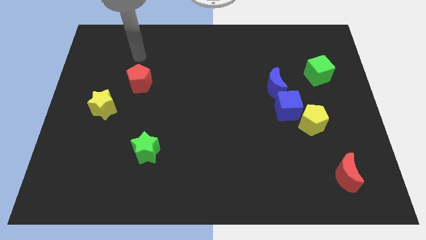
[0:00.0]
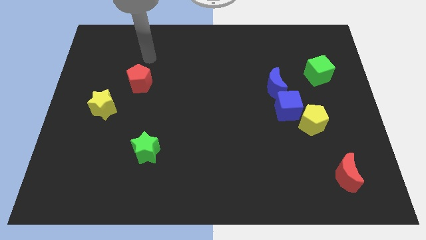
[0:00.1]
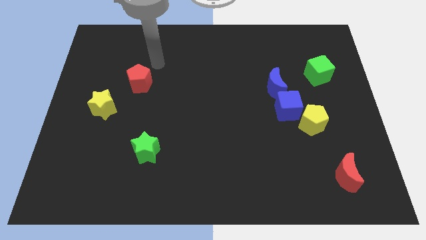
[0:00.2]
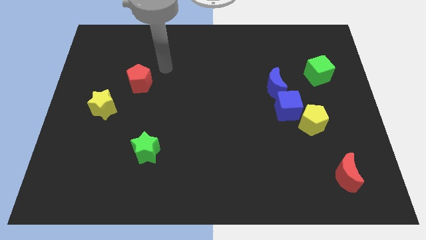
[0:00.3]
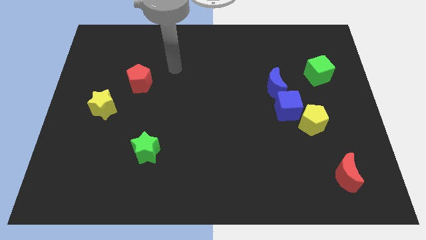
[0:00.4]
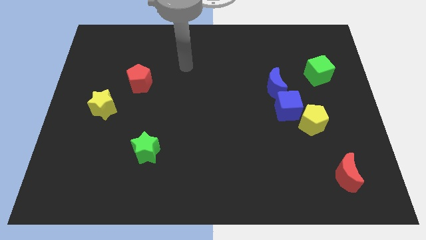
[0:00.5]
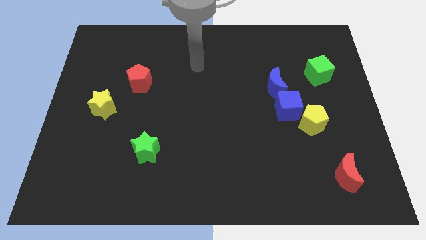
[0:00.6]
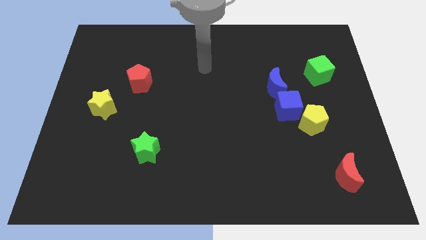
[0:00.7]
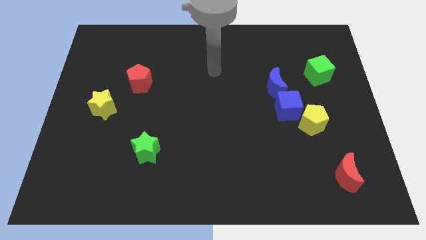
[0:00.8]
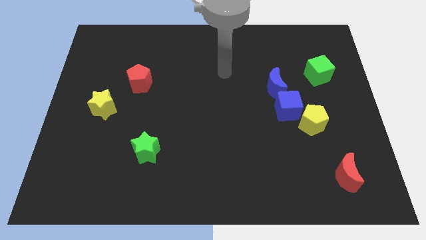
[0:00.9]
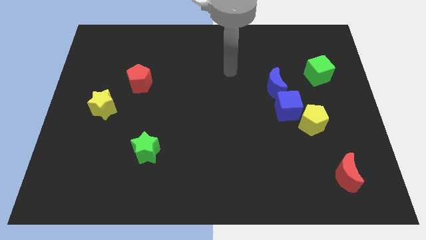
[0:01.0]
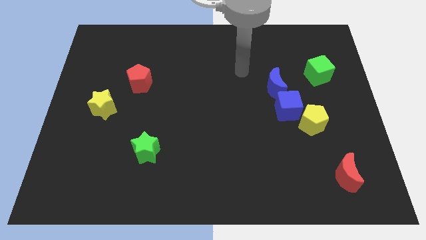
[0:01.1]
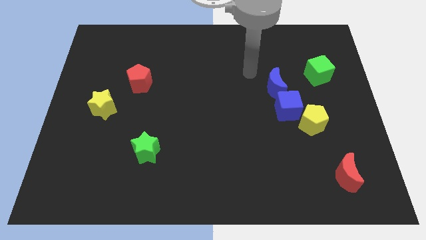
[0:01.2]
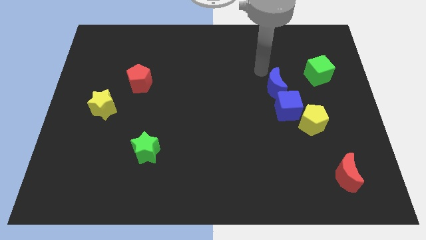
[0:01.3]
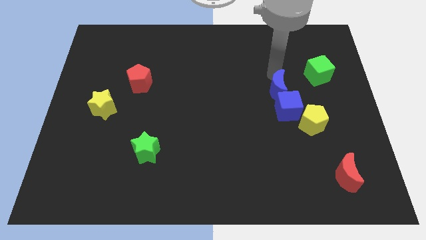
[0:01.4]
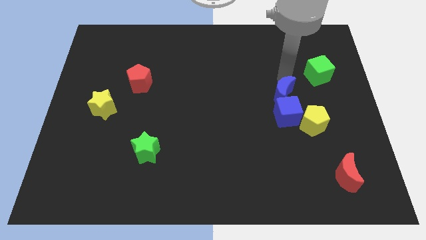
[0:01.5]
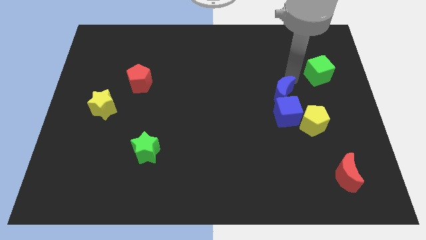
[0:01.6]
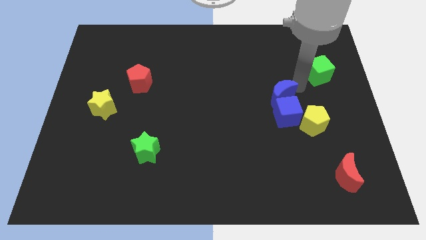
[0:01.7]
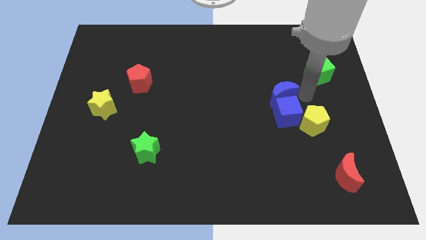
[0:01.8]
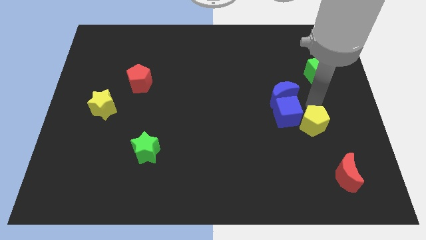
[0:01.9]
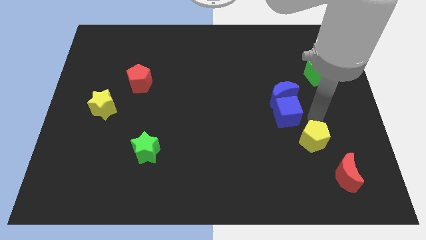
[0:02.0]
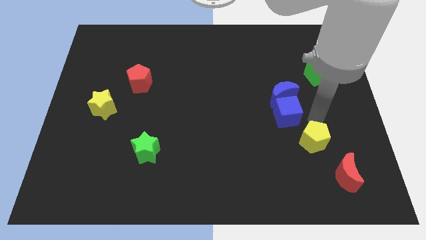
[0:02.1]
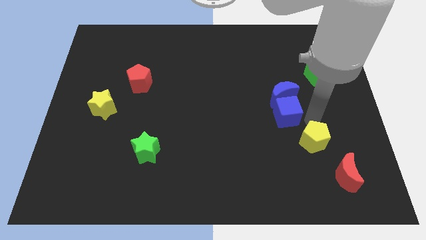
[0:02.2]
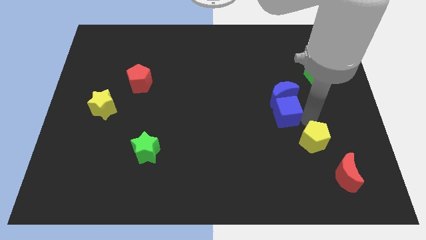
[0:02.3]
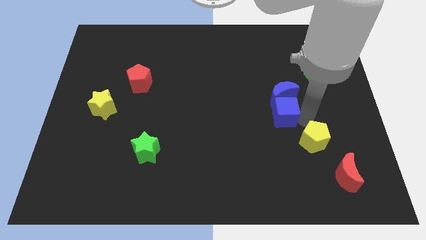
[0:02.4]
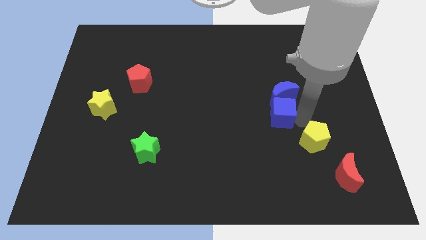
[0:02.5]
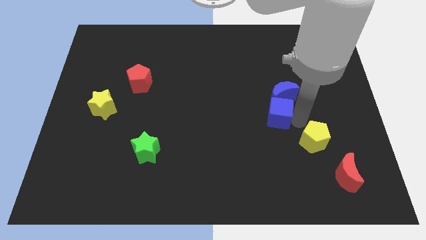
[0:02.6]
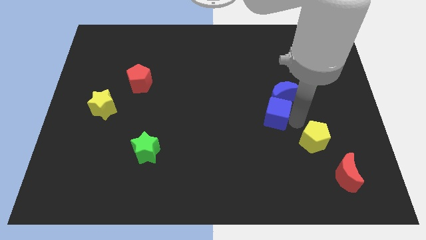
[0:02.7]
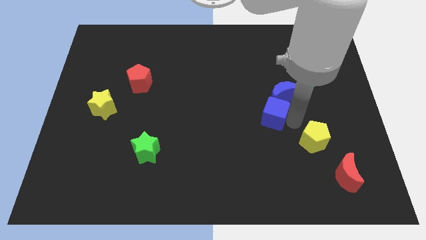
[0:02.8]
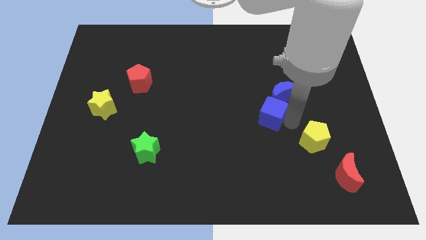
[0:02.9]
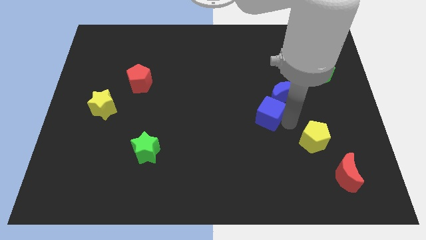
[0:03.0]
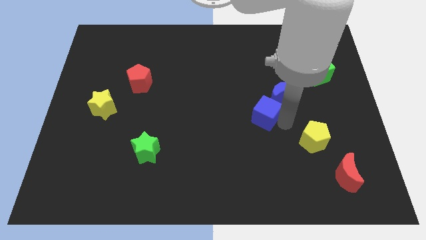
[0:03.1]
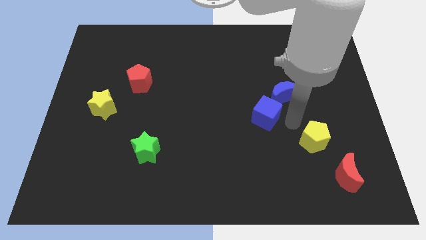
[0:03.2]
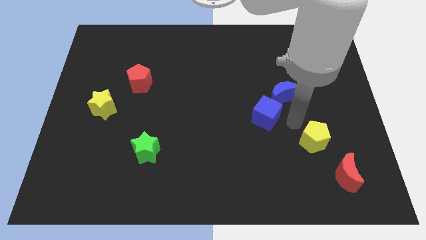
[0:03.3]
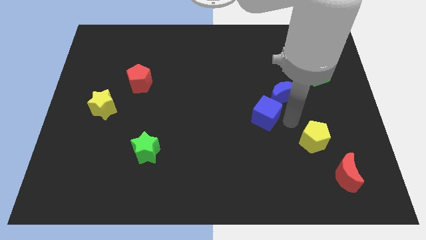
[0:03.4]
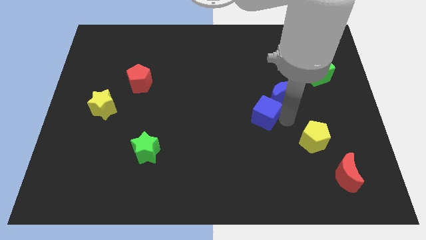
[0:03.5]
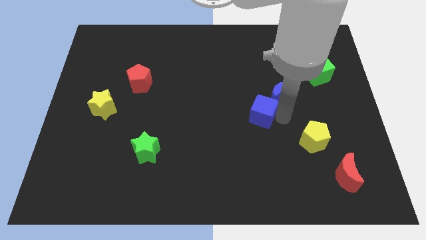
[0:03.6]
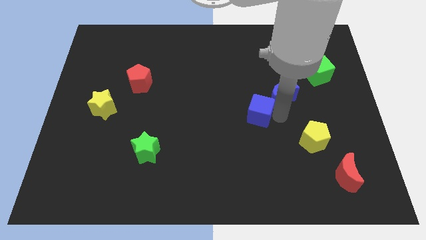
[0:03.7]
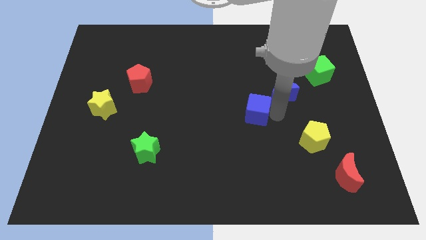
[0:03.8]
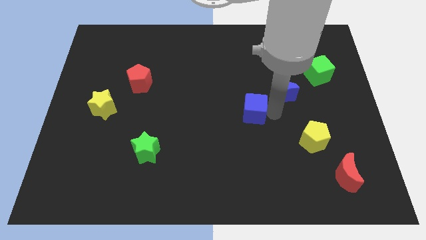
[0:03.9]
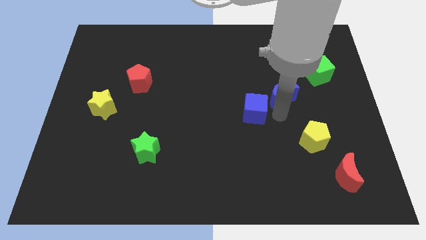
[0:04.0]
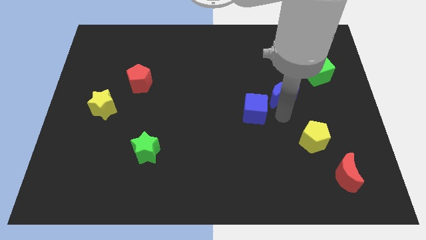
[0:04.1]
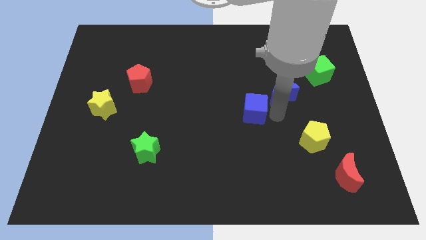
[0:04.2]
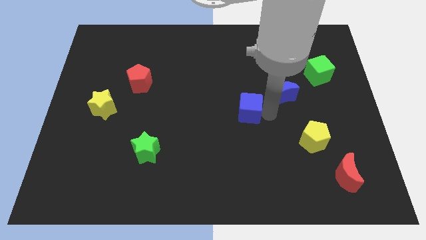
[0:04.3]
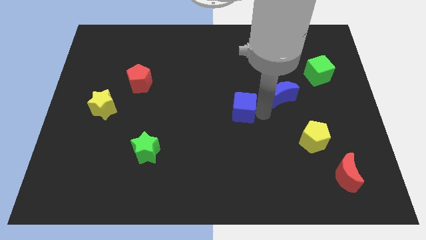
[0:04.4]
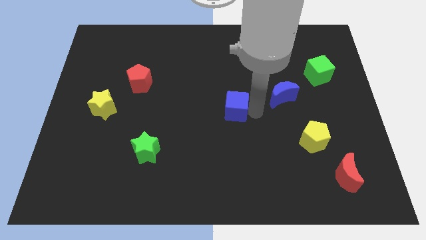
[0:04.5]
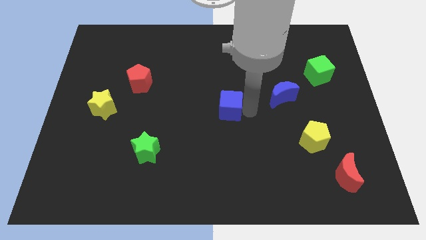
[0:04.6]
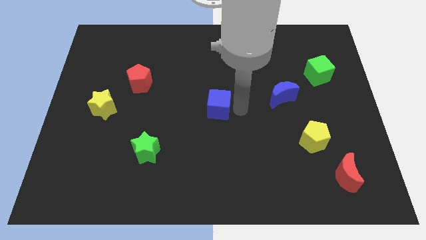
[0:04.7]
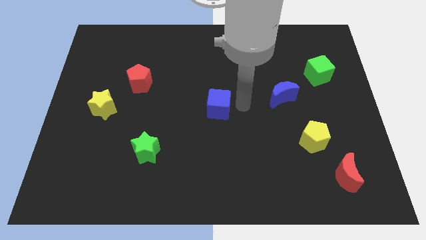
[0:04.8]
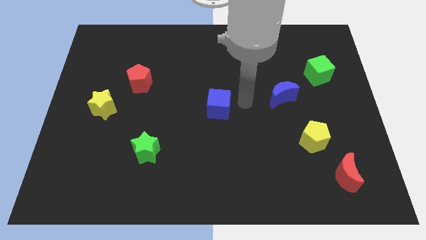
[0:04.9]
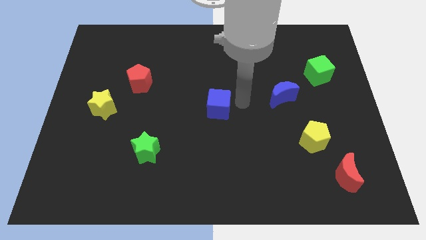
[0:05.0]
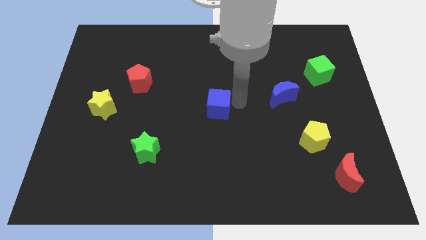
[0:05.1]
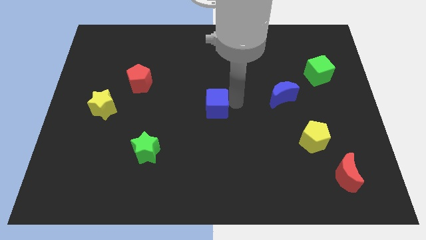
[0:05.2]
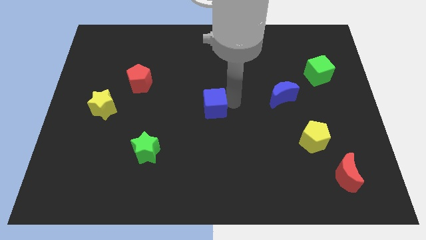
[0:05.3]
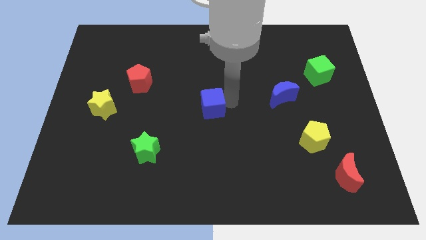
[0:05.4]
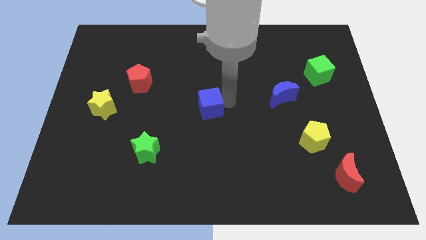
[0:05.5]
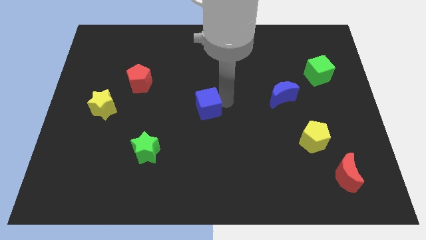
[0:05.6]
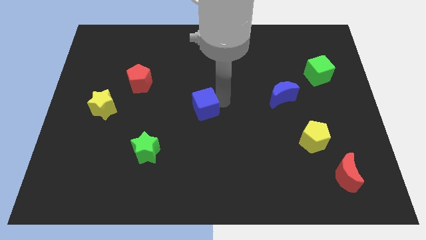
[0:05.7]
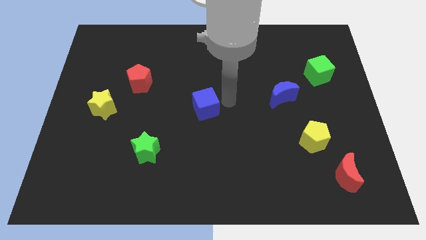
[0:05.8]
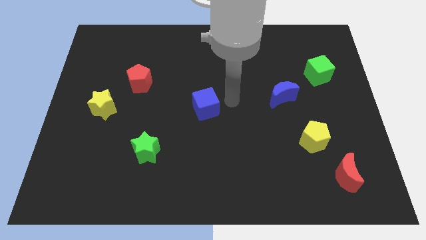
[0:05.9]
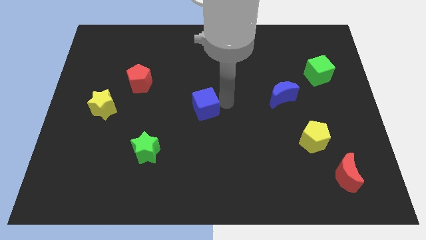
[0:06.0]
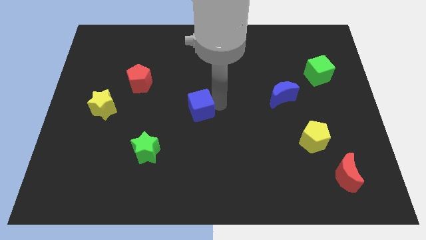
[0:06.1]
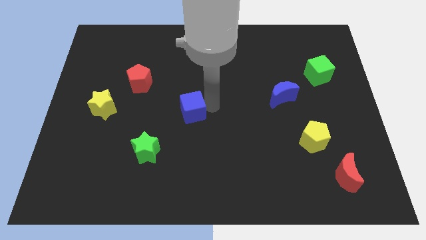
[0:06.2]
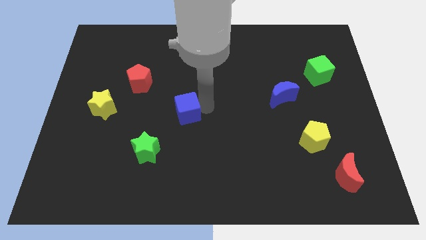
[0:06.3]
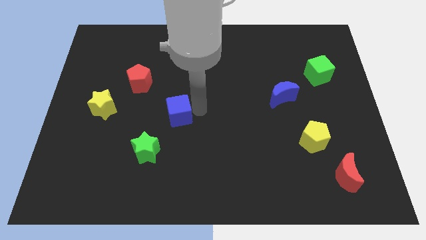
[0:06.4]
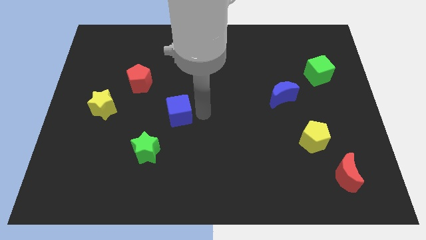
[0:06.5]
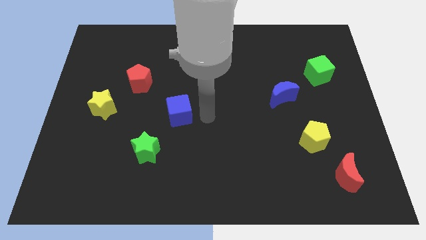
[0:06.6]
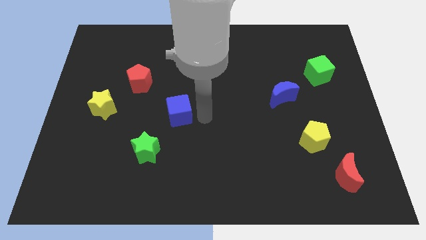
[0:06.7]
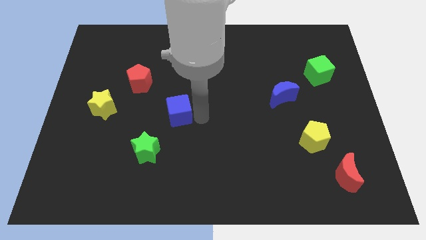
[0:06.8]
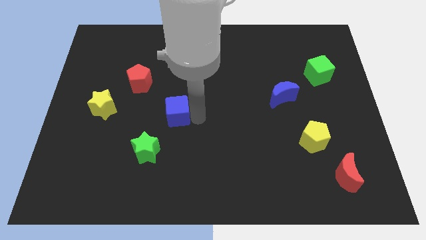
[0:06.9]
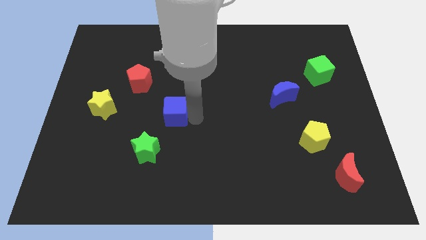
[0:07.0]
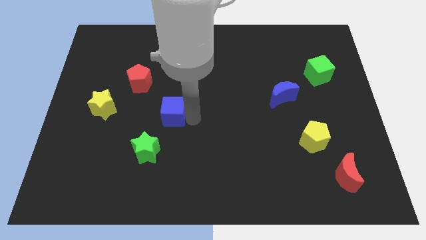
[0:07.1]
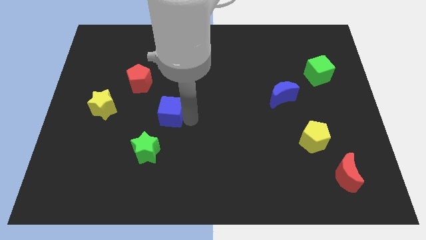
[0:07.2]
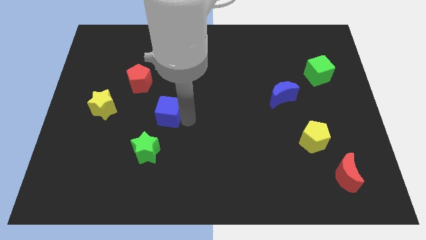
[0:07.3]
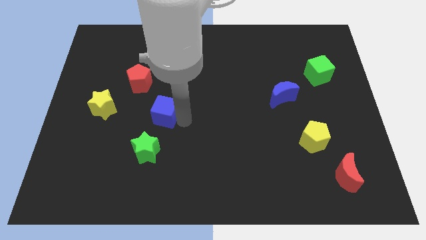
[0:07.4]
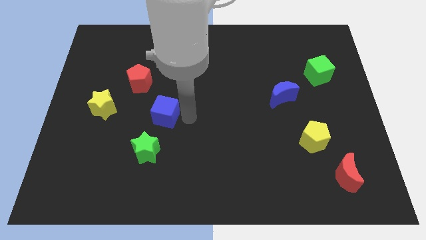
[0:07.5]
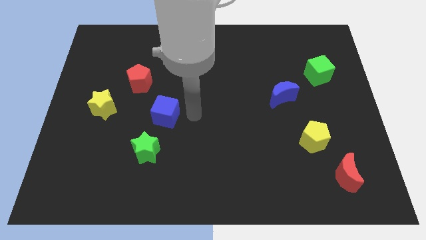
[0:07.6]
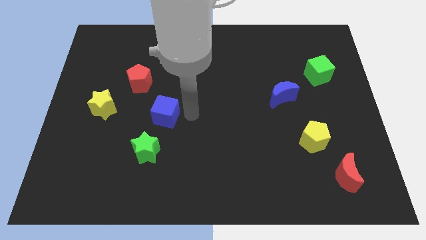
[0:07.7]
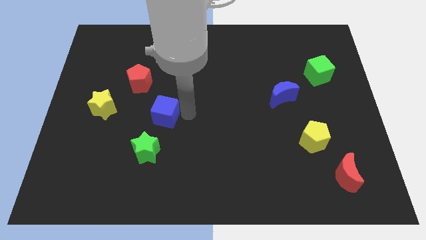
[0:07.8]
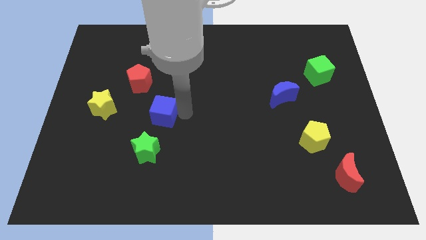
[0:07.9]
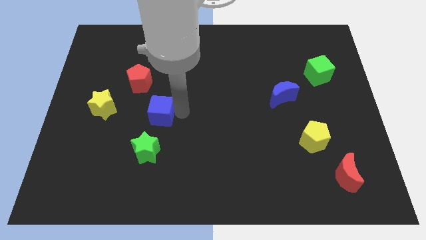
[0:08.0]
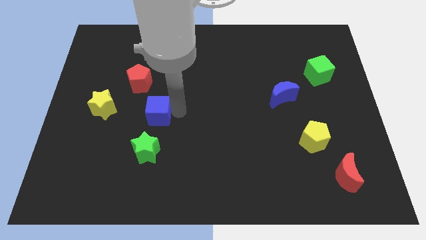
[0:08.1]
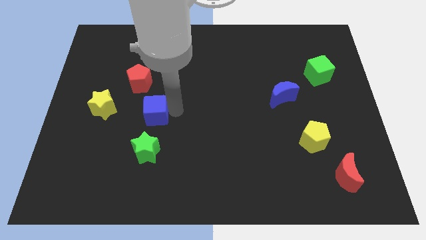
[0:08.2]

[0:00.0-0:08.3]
slide the blue cube to the bottom of the red pentagon
